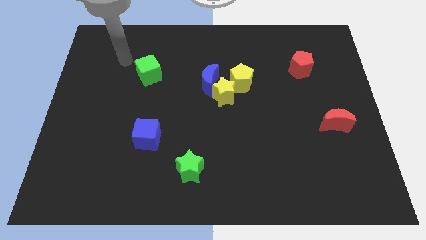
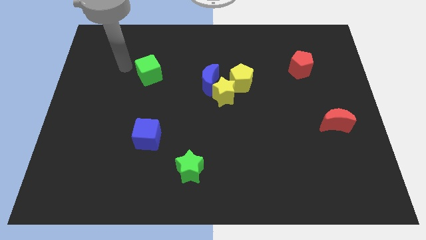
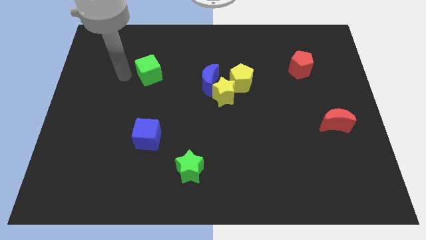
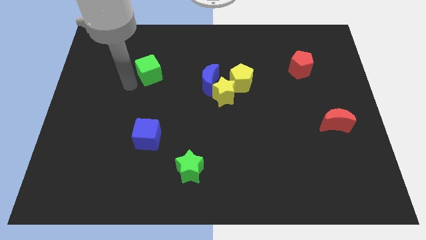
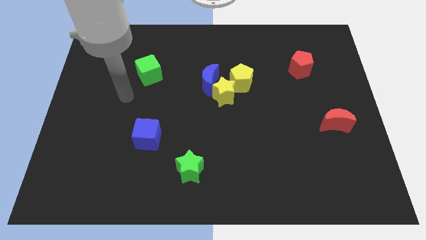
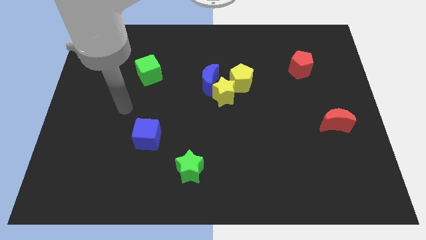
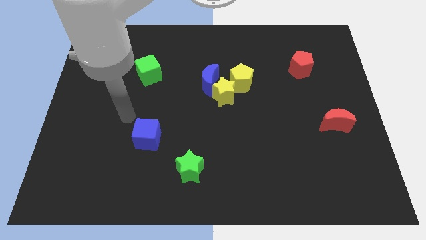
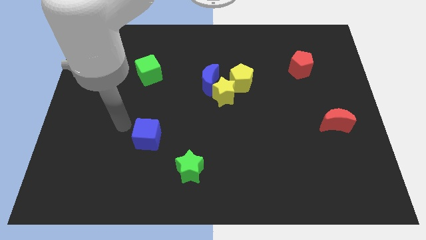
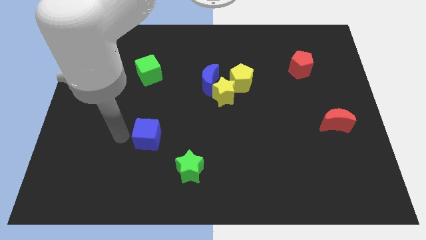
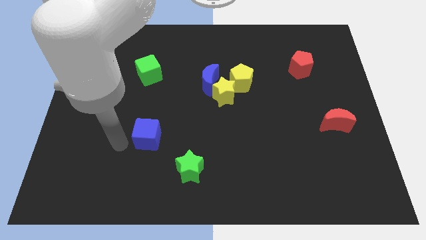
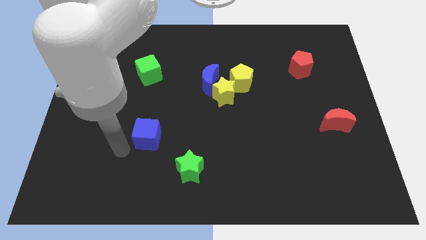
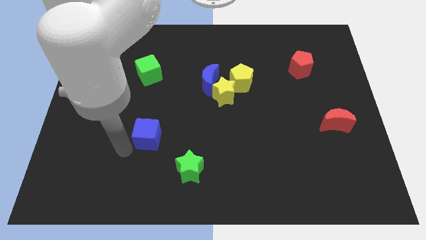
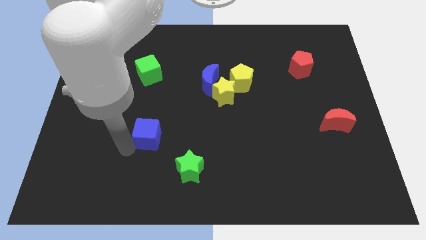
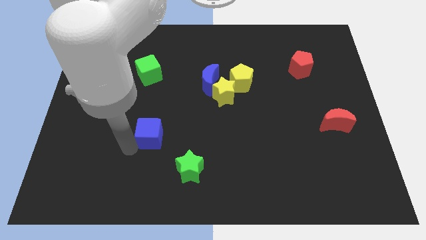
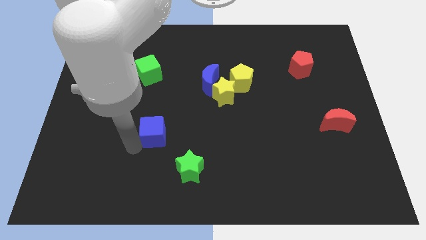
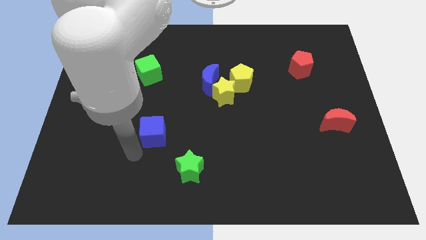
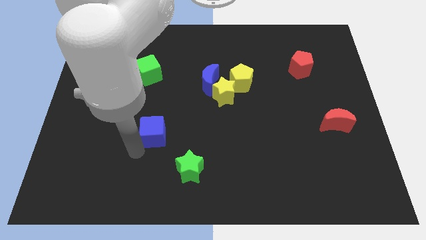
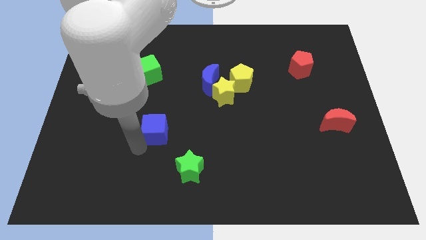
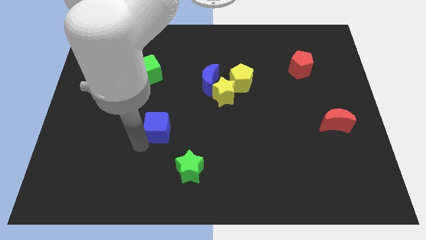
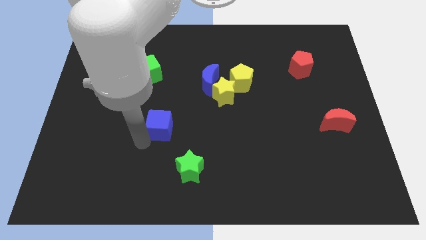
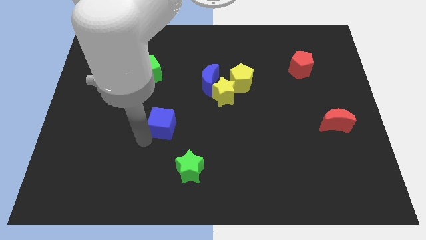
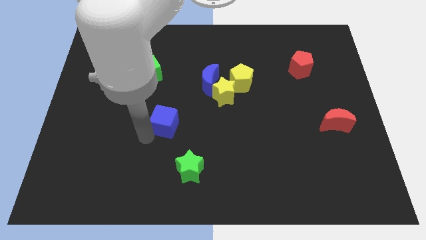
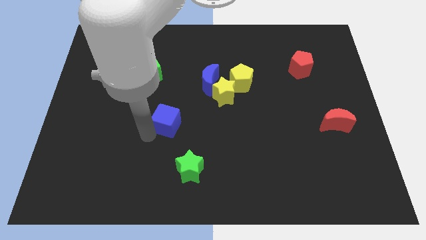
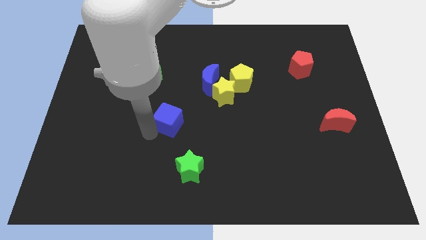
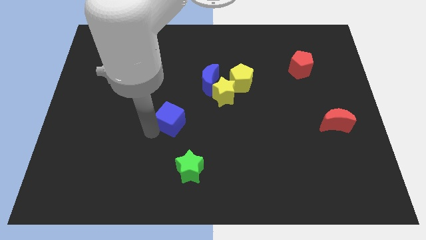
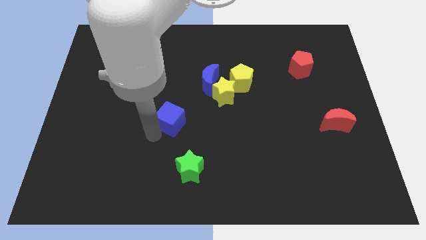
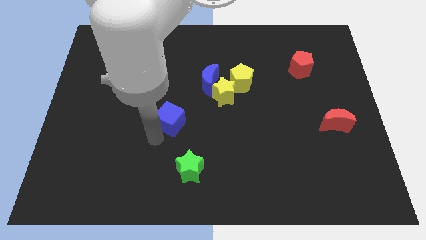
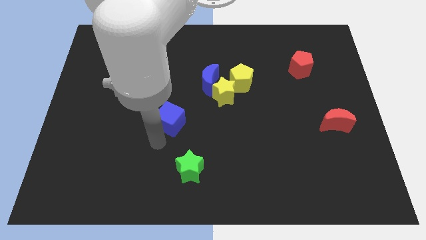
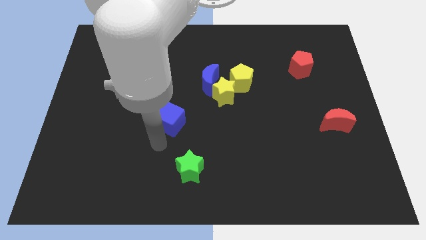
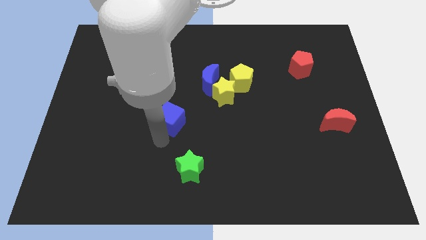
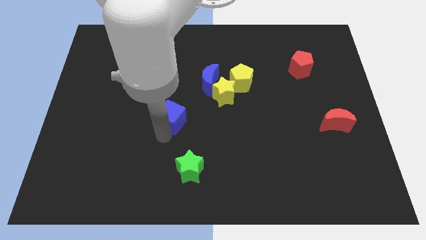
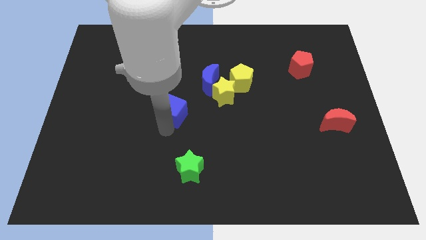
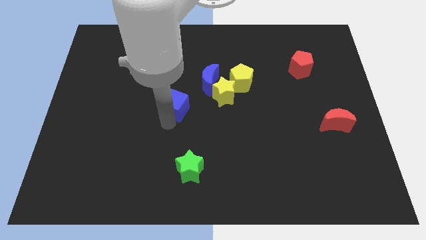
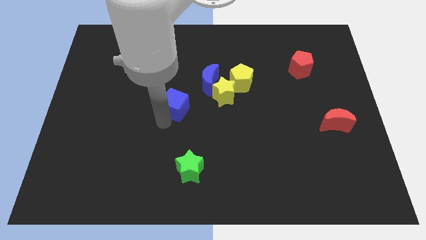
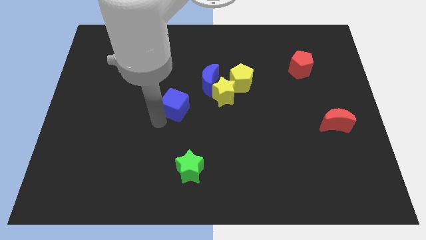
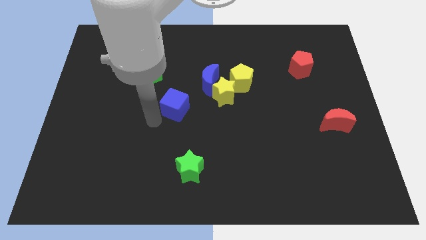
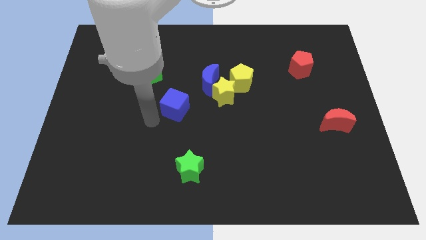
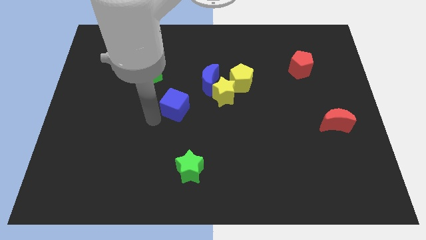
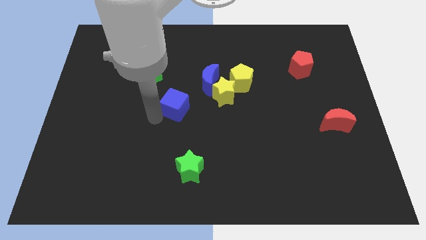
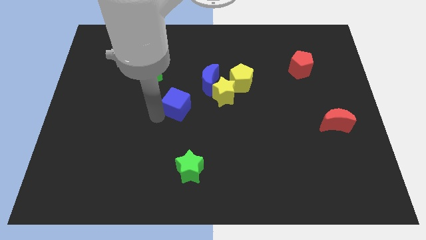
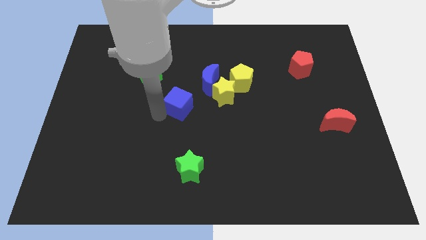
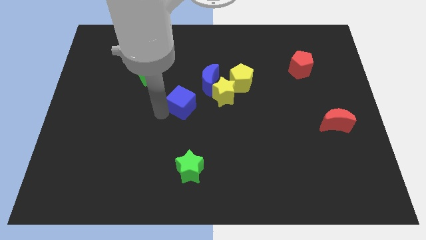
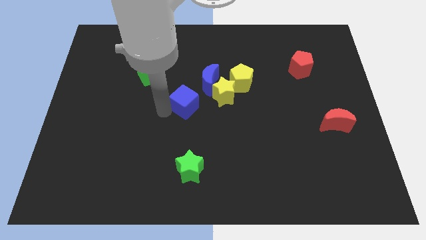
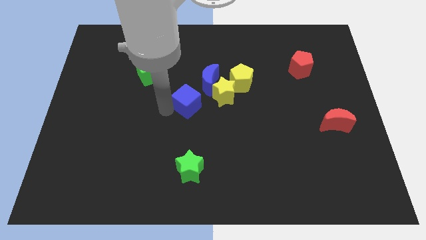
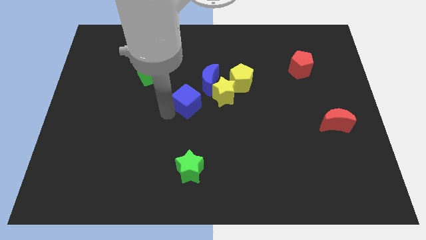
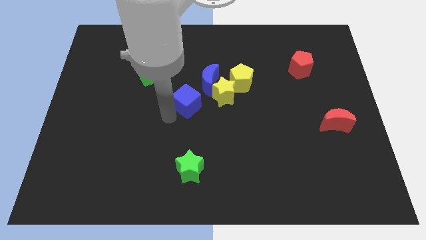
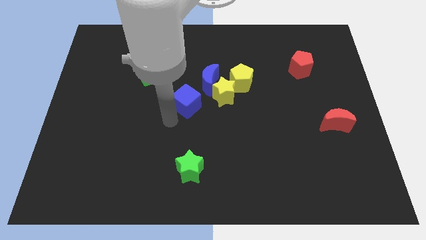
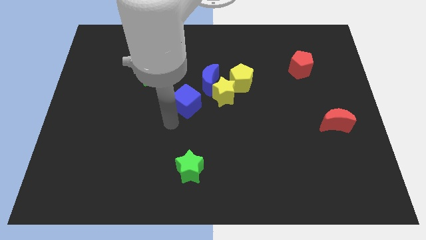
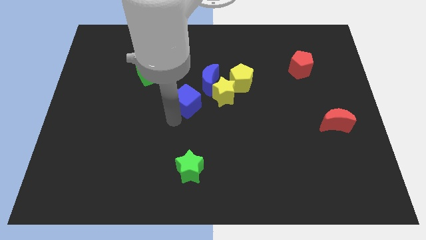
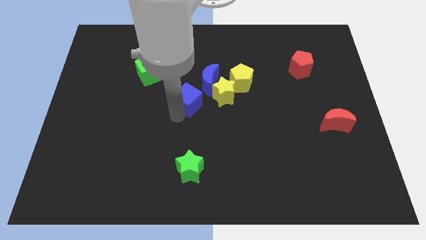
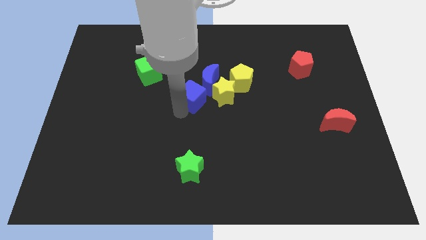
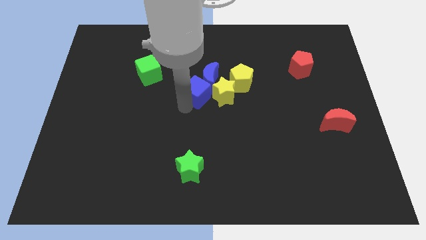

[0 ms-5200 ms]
put the blue cube to the blue moon

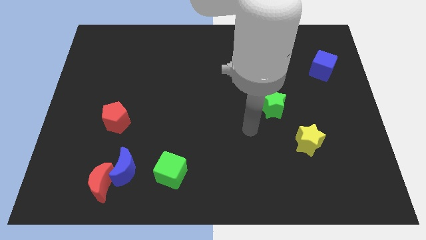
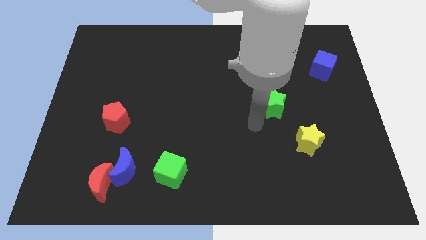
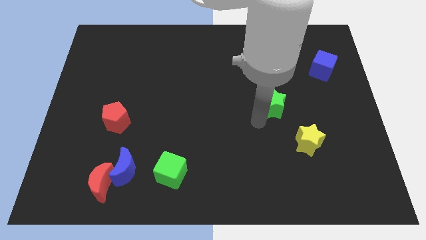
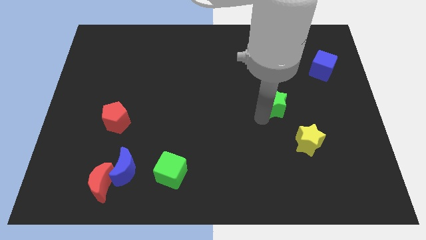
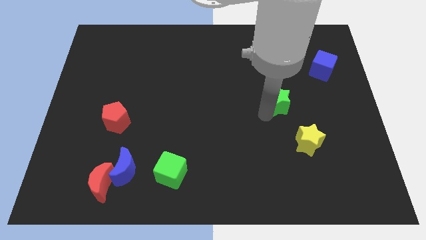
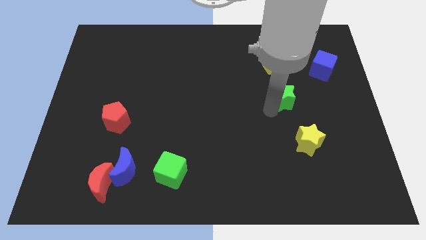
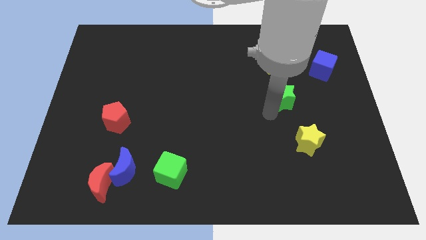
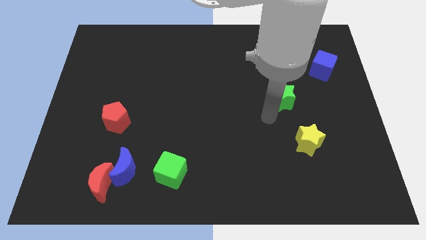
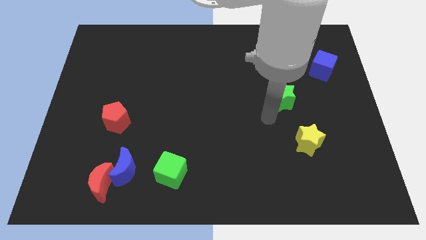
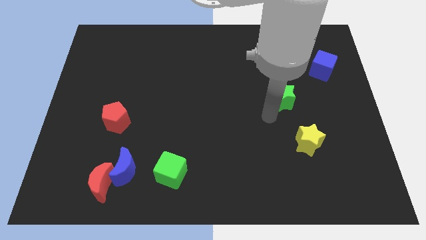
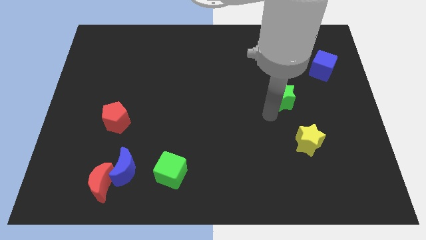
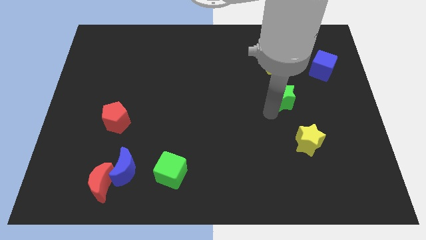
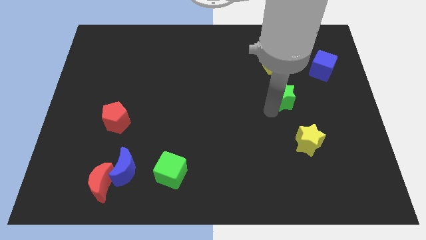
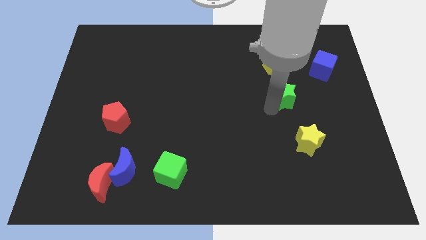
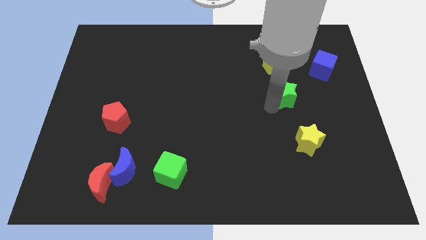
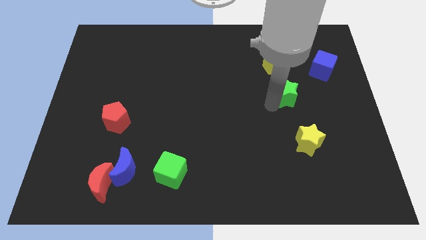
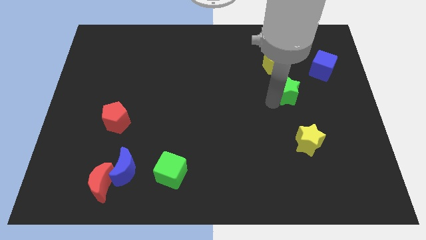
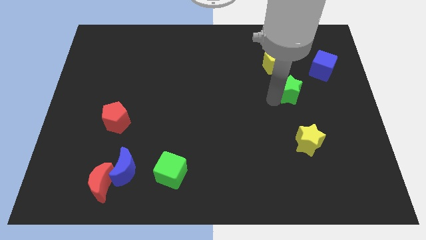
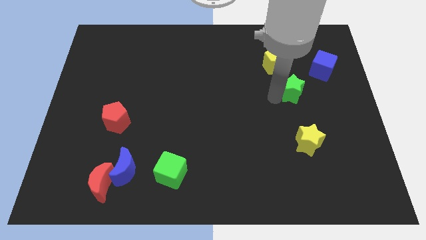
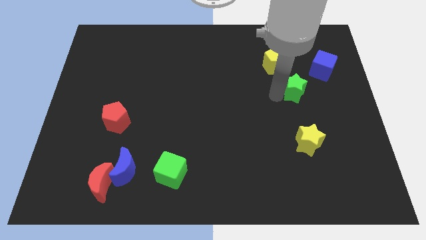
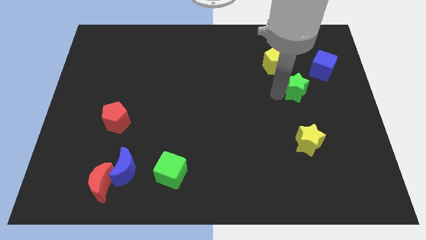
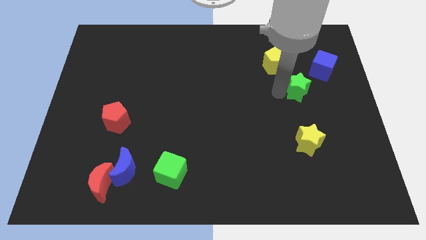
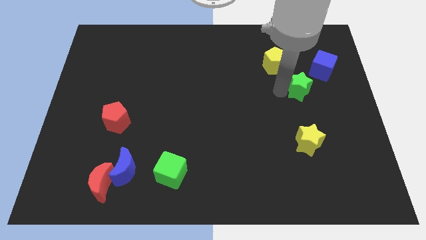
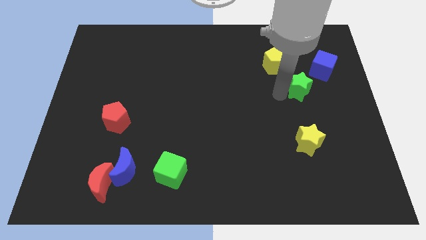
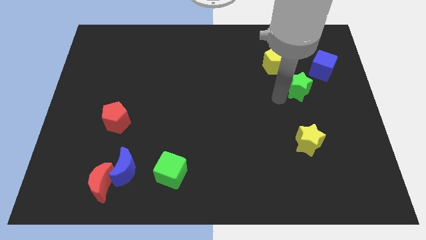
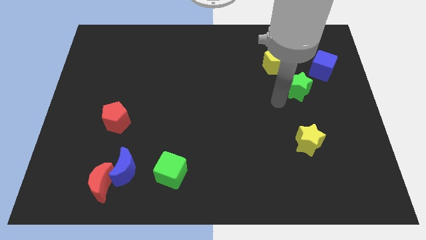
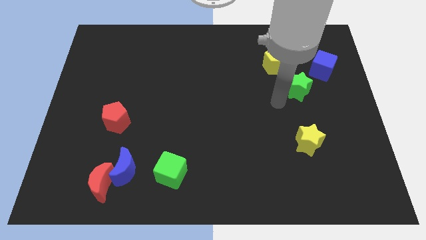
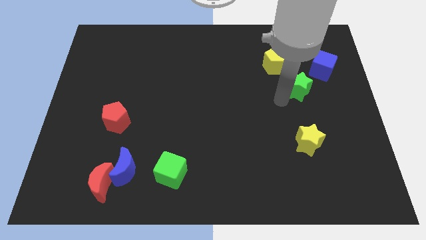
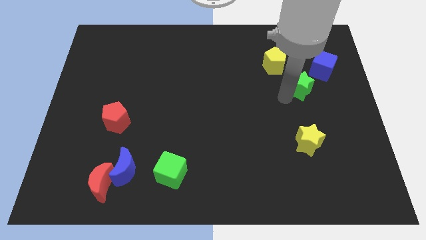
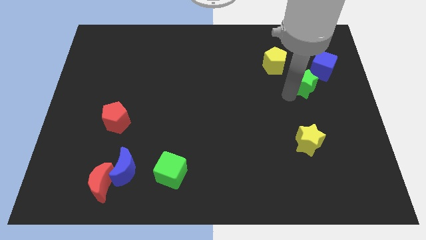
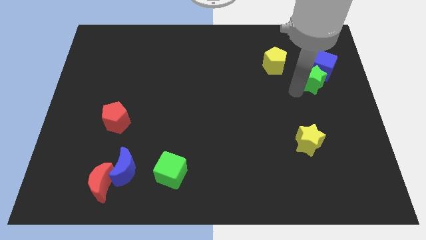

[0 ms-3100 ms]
slide the green star next to the blue cube
